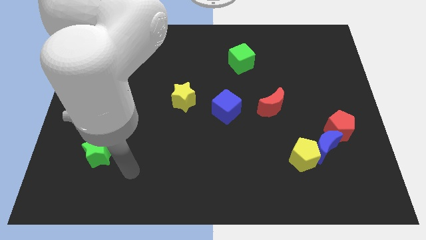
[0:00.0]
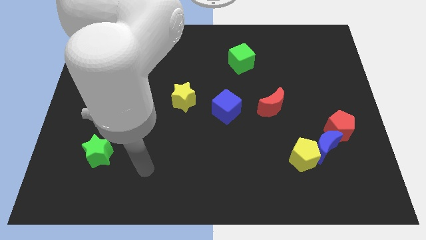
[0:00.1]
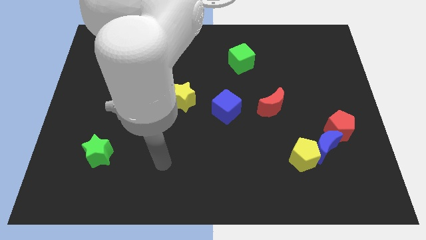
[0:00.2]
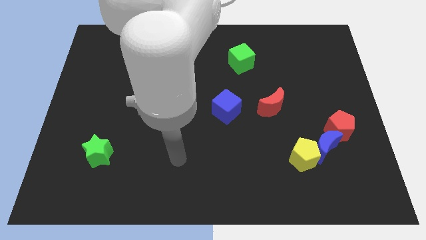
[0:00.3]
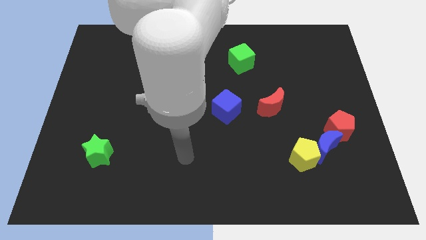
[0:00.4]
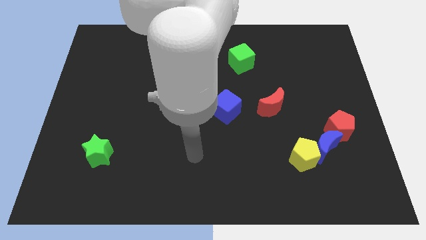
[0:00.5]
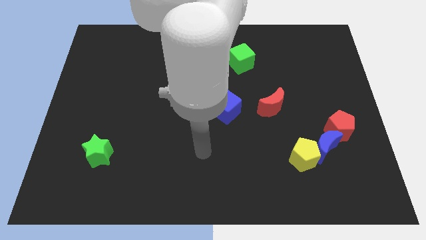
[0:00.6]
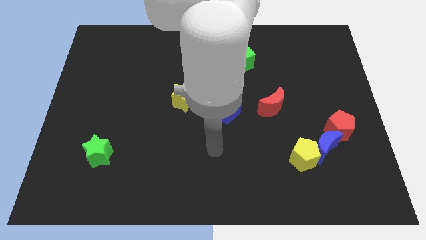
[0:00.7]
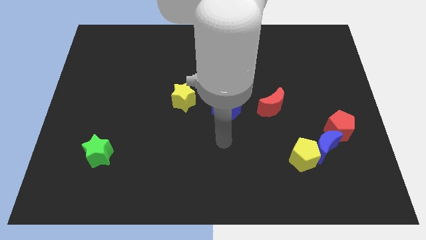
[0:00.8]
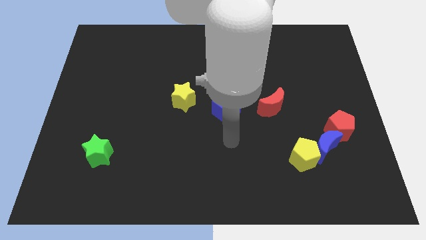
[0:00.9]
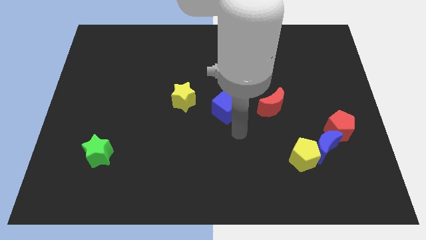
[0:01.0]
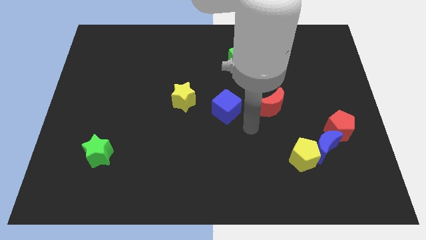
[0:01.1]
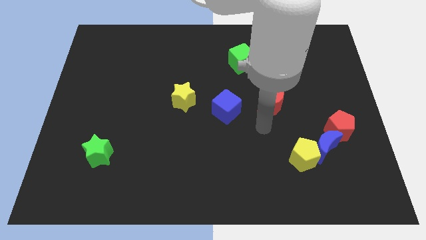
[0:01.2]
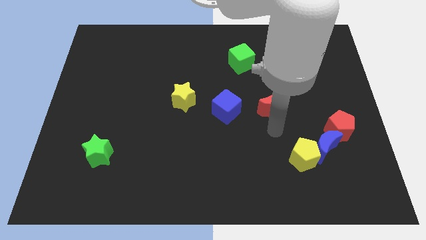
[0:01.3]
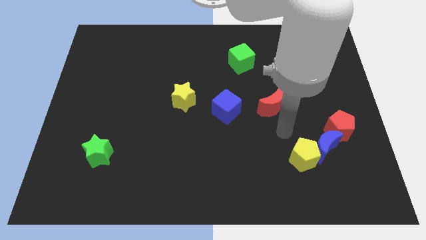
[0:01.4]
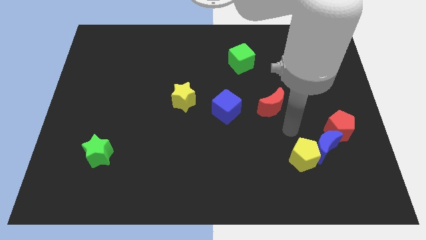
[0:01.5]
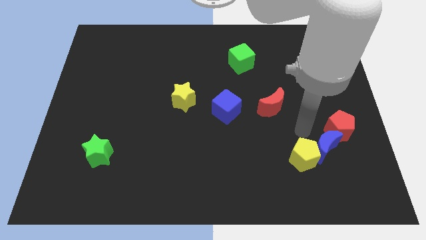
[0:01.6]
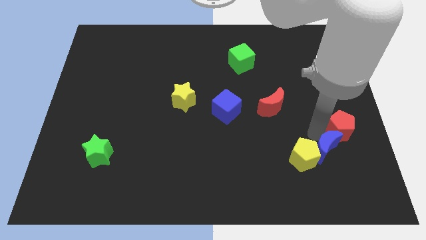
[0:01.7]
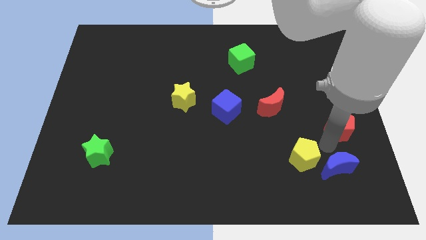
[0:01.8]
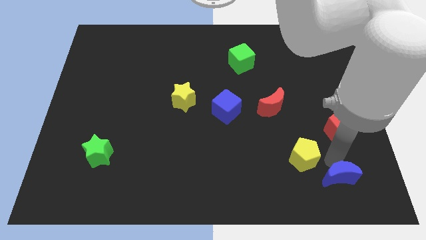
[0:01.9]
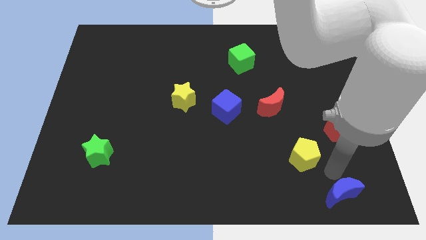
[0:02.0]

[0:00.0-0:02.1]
move the yellow pentagon away from the blue moon

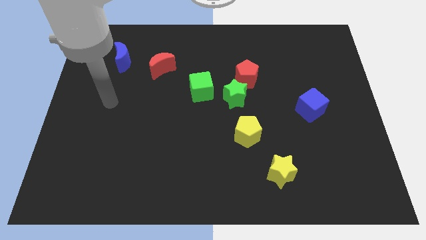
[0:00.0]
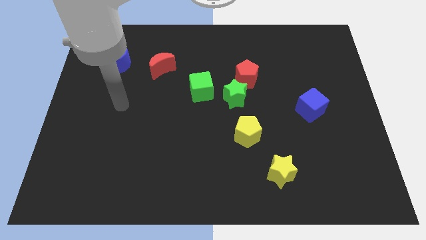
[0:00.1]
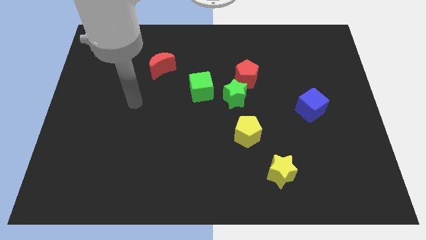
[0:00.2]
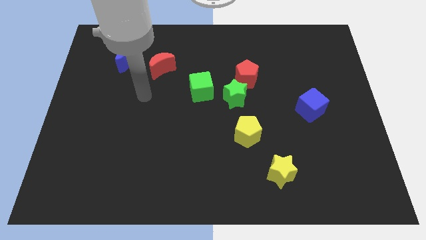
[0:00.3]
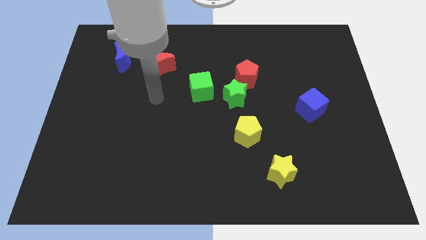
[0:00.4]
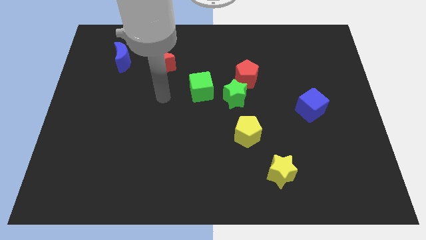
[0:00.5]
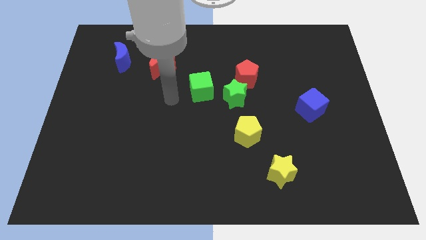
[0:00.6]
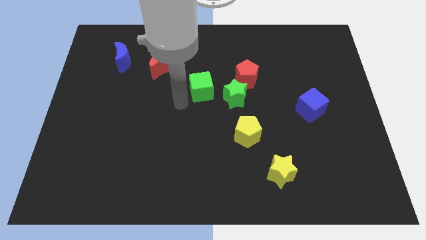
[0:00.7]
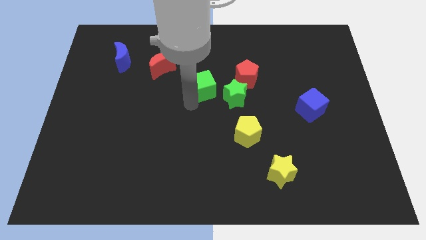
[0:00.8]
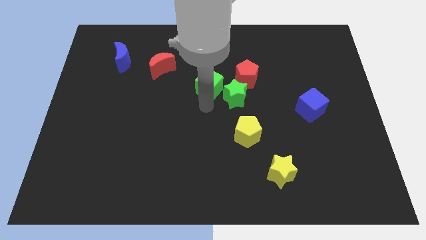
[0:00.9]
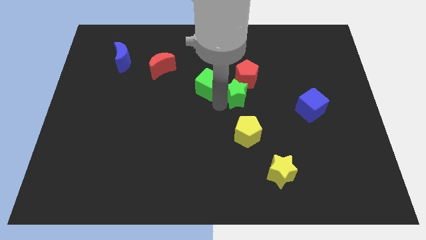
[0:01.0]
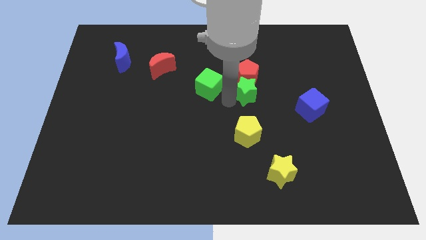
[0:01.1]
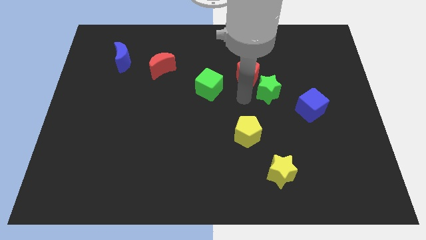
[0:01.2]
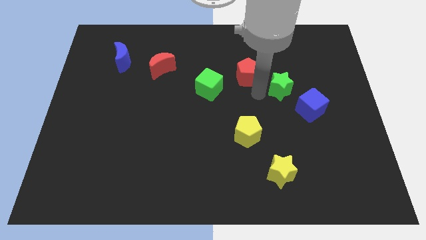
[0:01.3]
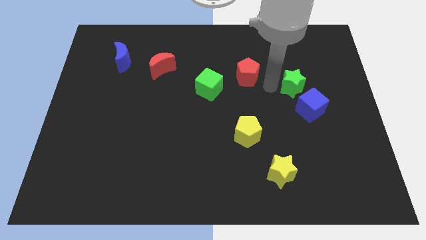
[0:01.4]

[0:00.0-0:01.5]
separate the red pentagon from the green star

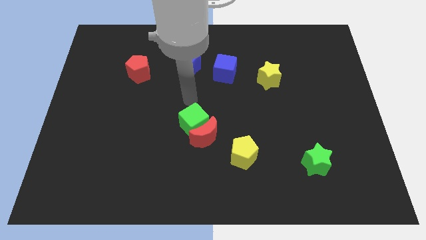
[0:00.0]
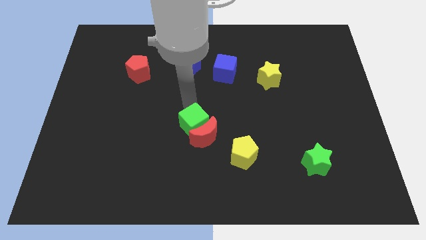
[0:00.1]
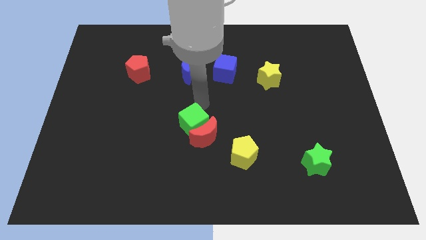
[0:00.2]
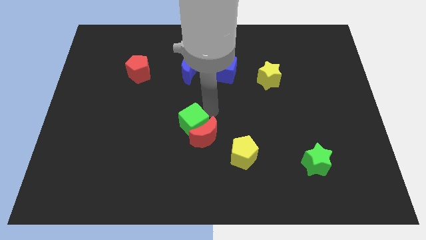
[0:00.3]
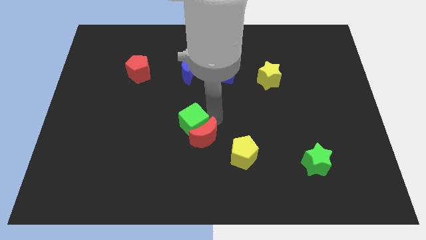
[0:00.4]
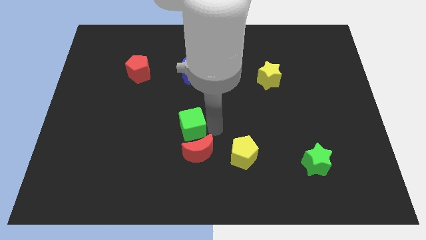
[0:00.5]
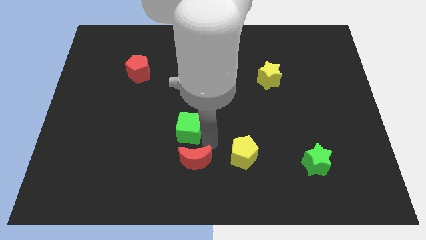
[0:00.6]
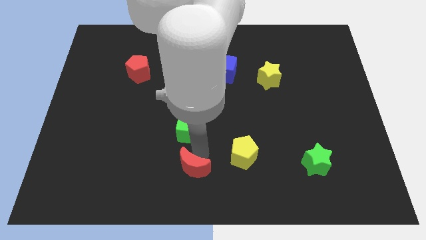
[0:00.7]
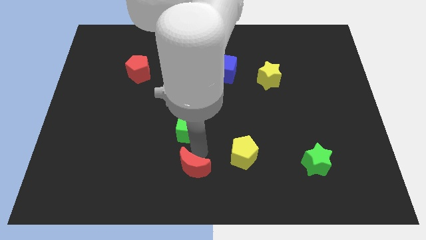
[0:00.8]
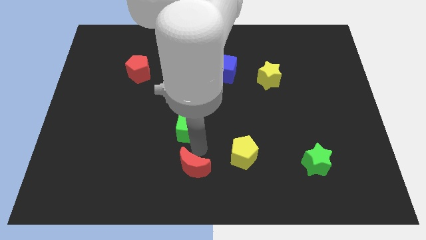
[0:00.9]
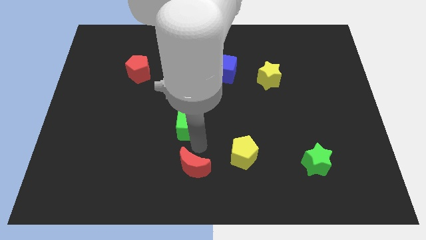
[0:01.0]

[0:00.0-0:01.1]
separate the green cube from the red moon

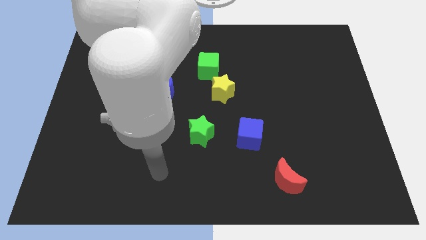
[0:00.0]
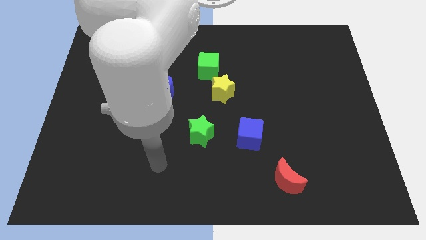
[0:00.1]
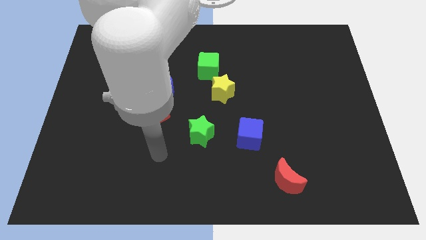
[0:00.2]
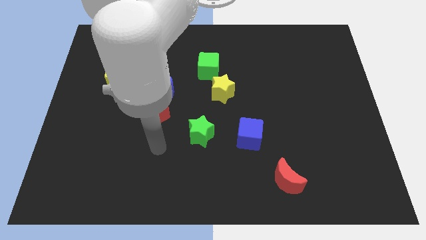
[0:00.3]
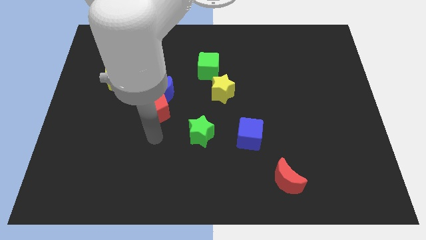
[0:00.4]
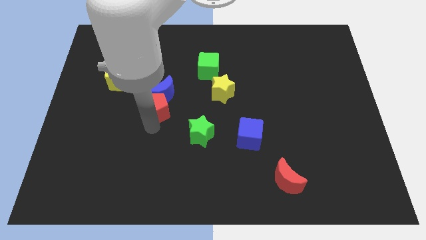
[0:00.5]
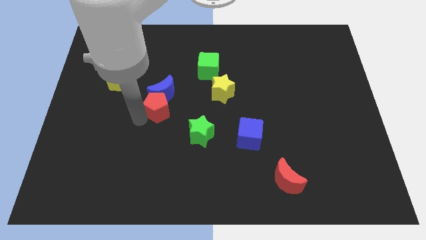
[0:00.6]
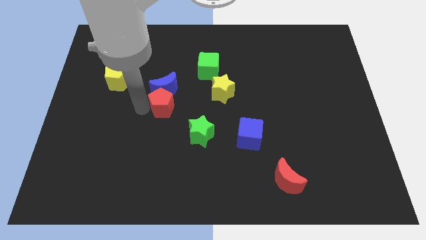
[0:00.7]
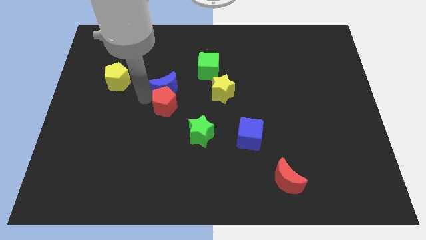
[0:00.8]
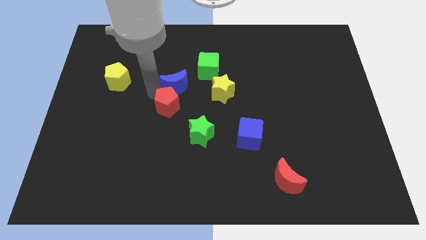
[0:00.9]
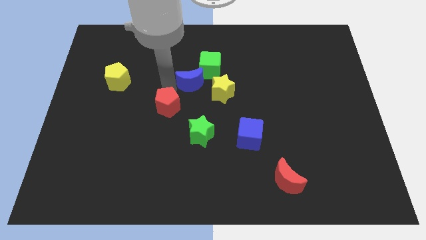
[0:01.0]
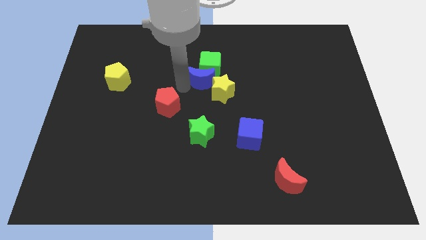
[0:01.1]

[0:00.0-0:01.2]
pull the red pentagon apart from the blue moon

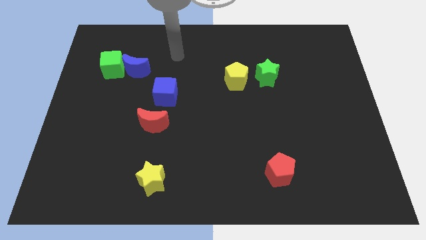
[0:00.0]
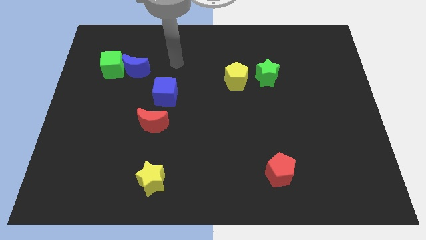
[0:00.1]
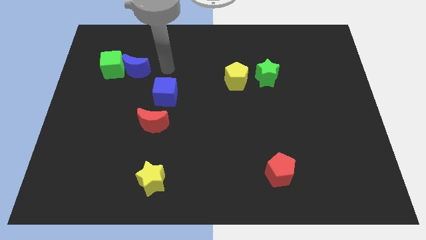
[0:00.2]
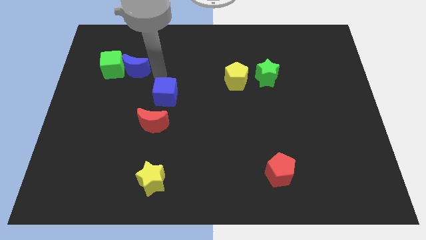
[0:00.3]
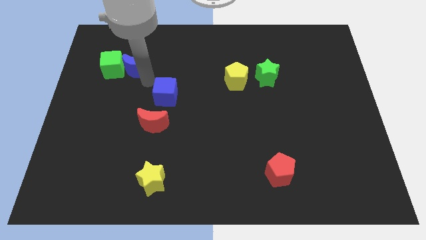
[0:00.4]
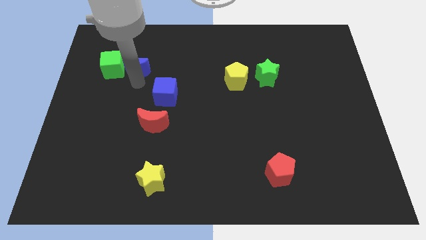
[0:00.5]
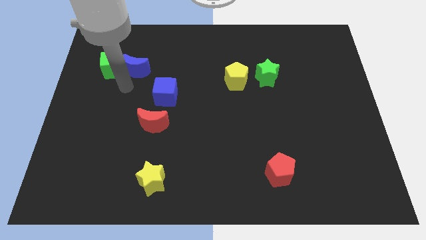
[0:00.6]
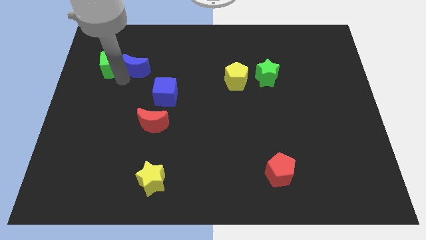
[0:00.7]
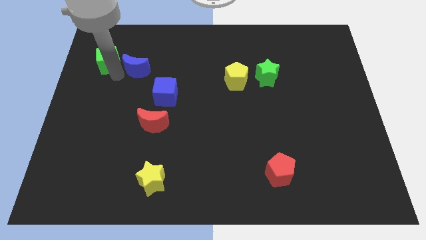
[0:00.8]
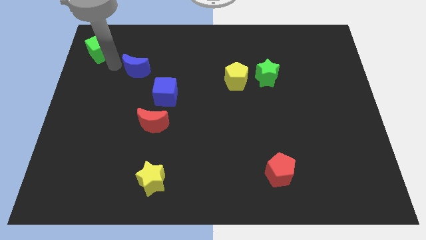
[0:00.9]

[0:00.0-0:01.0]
separate the blue moon from the green cube

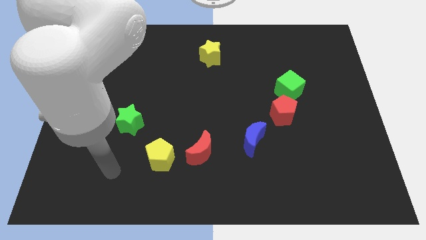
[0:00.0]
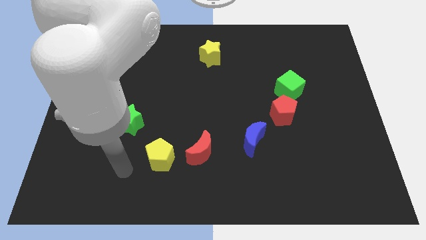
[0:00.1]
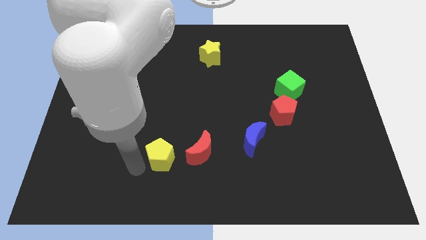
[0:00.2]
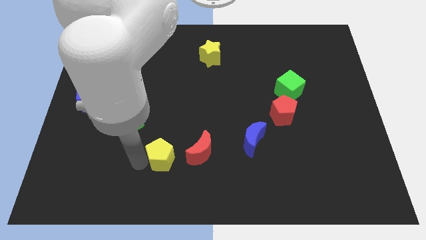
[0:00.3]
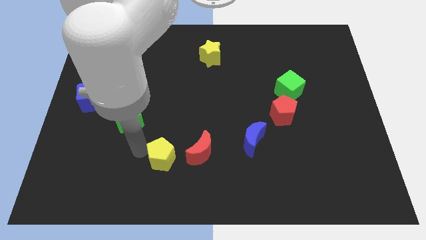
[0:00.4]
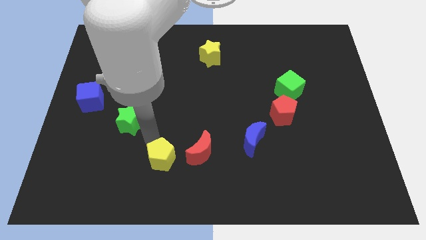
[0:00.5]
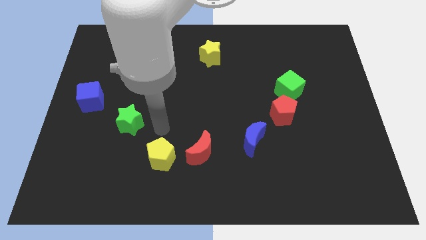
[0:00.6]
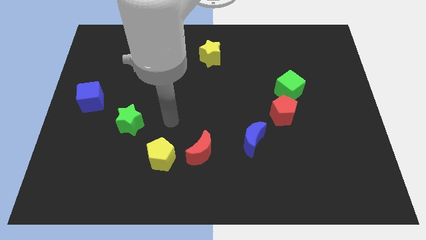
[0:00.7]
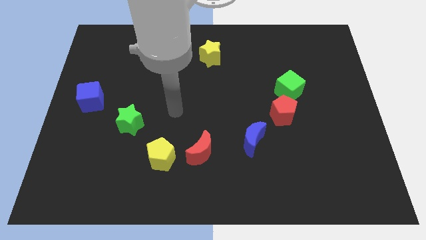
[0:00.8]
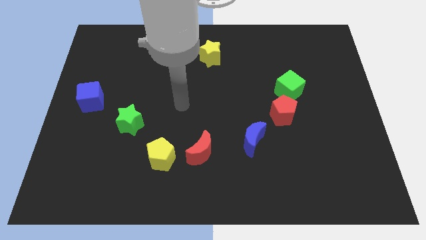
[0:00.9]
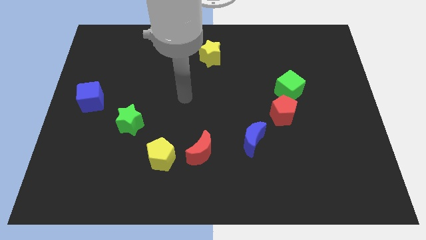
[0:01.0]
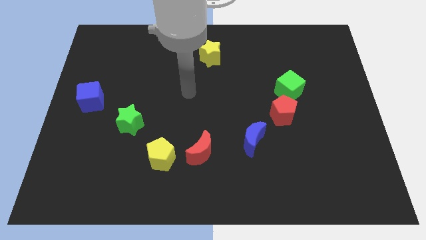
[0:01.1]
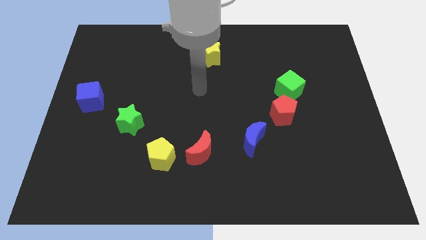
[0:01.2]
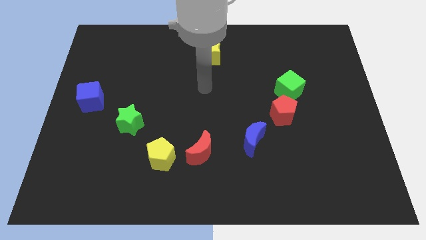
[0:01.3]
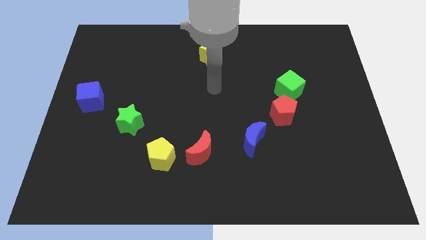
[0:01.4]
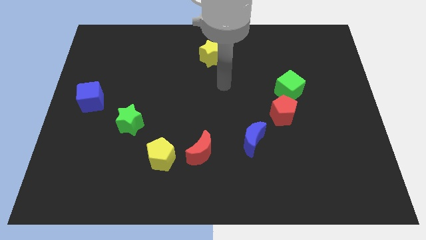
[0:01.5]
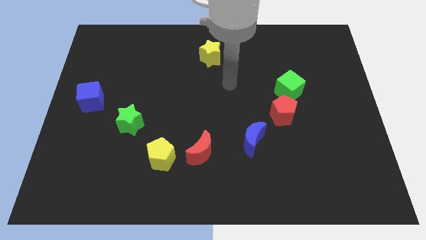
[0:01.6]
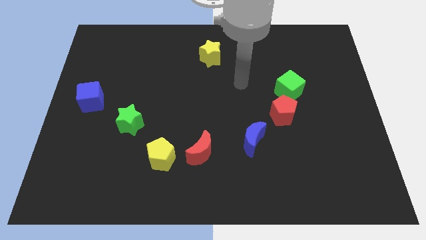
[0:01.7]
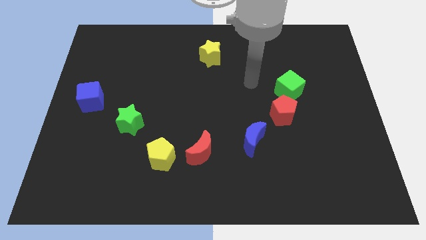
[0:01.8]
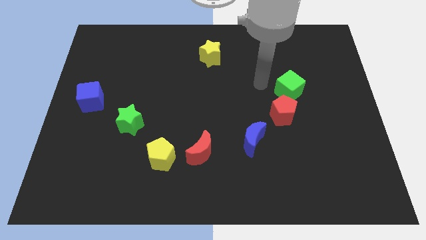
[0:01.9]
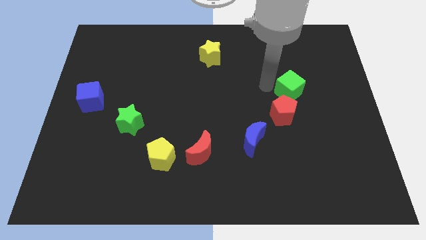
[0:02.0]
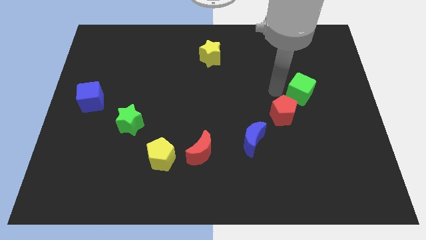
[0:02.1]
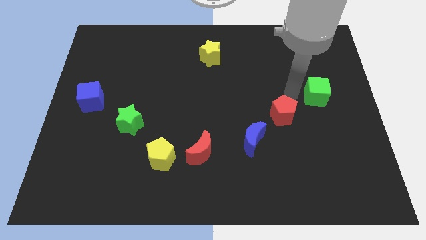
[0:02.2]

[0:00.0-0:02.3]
move the red pentagon away from the green cube
